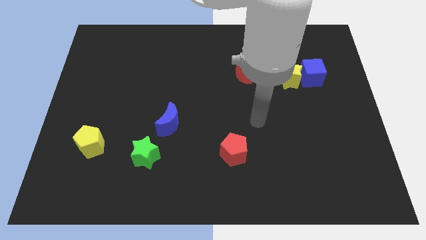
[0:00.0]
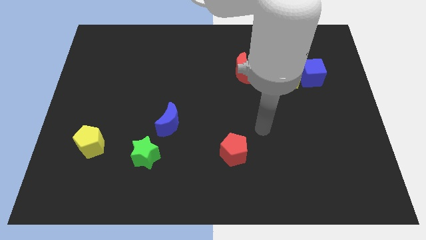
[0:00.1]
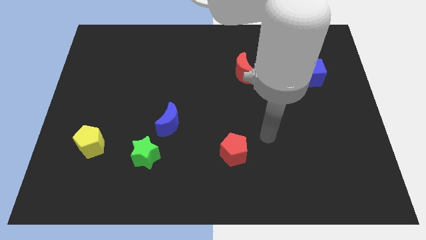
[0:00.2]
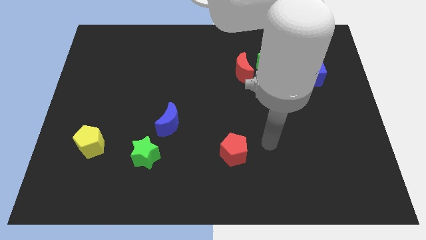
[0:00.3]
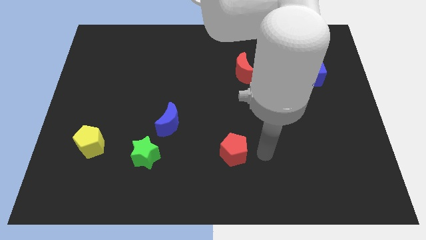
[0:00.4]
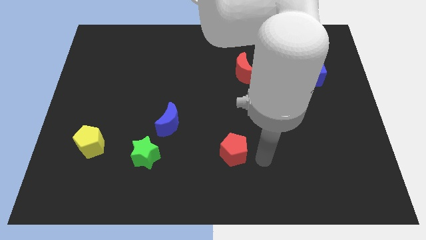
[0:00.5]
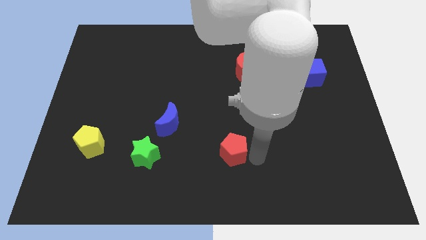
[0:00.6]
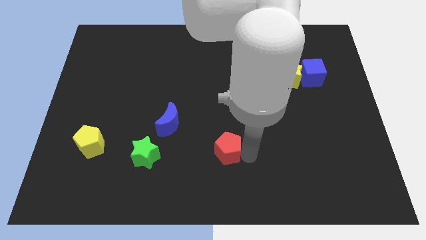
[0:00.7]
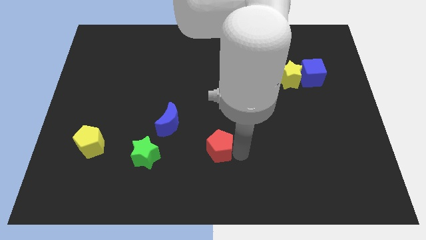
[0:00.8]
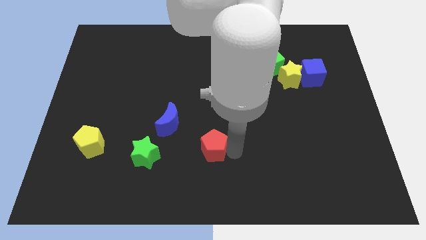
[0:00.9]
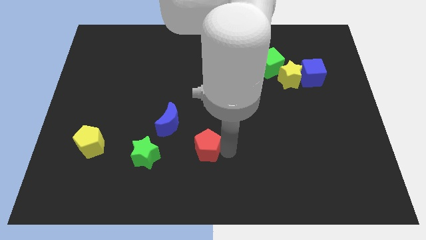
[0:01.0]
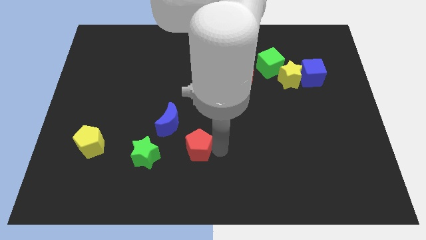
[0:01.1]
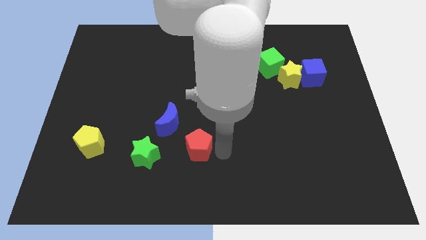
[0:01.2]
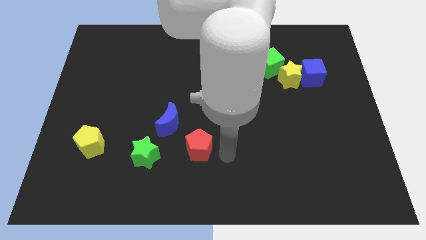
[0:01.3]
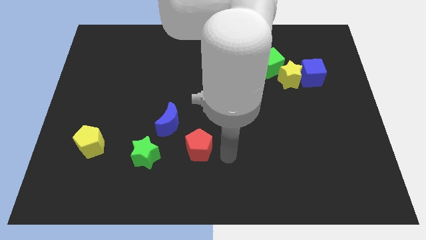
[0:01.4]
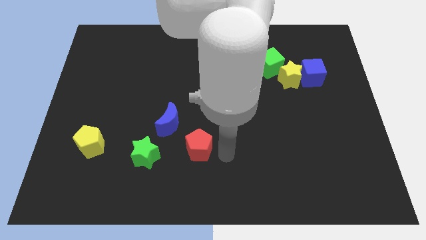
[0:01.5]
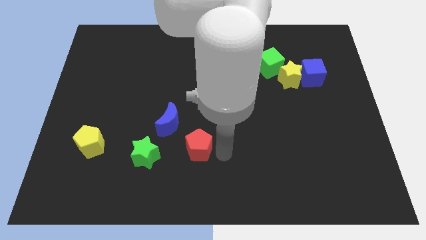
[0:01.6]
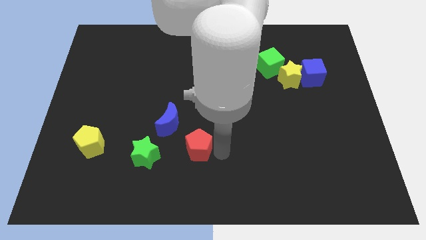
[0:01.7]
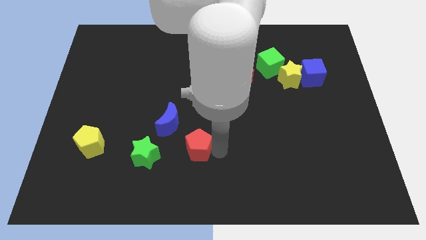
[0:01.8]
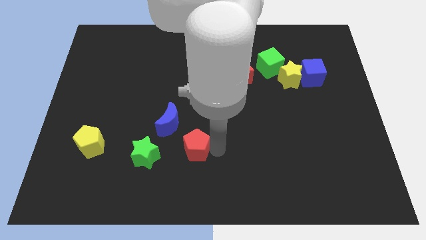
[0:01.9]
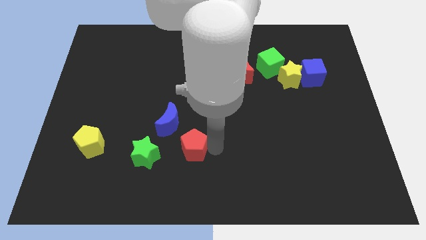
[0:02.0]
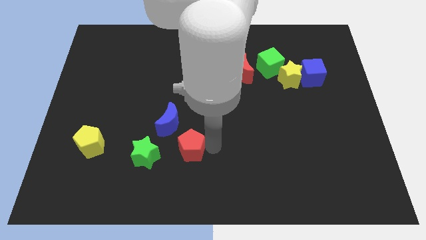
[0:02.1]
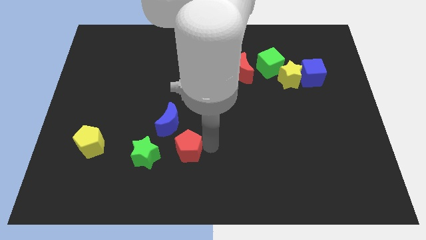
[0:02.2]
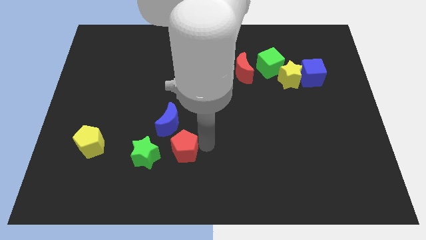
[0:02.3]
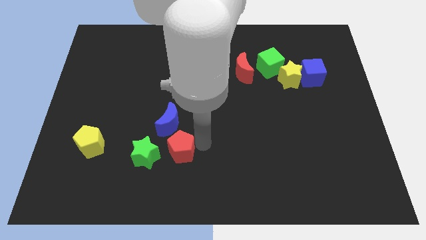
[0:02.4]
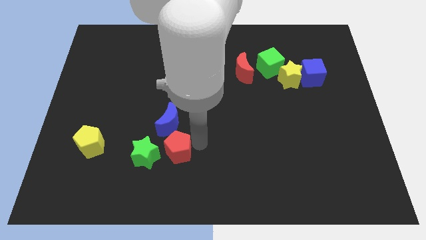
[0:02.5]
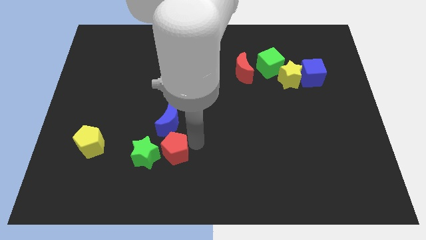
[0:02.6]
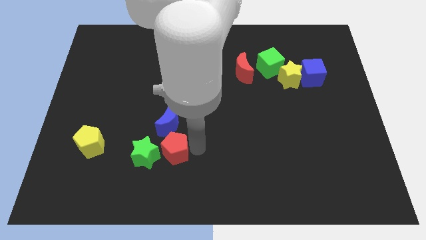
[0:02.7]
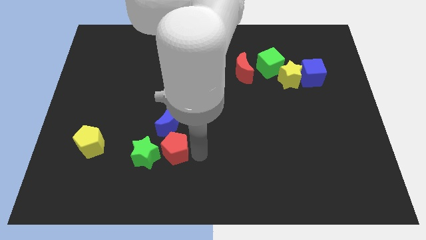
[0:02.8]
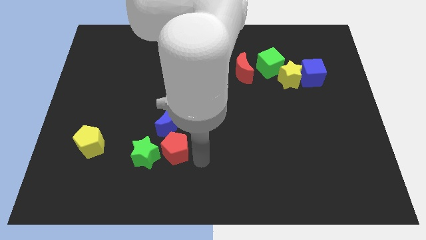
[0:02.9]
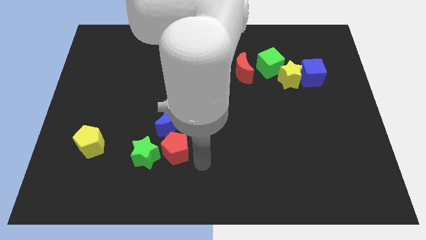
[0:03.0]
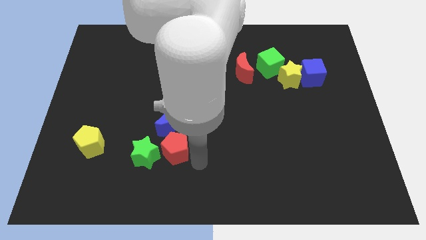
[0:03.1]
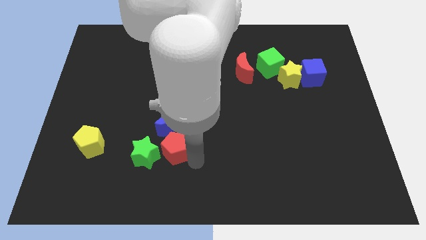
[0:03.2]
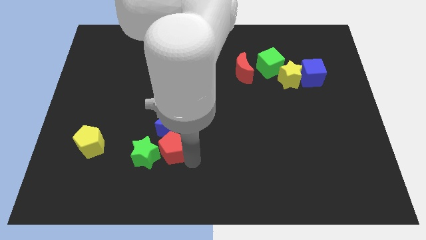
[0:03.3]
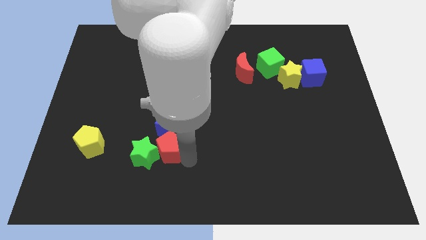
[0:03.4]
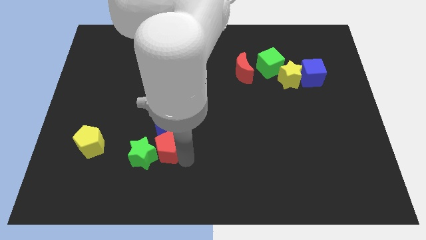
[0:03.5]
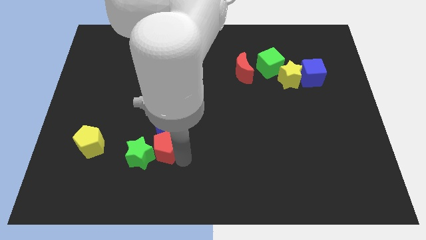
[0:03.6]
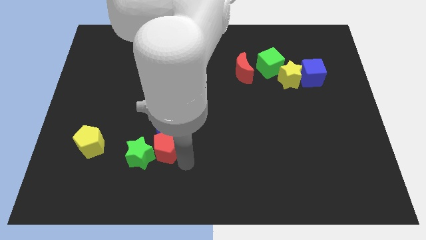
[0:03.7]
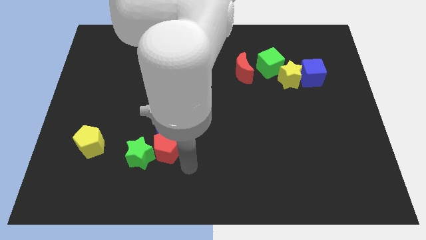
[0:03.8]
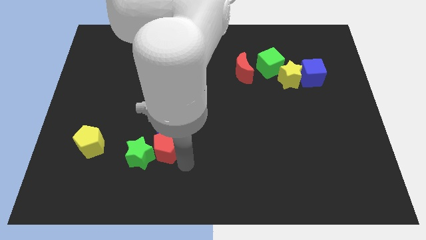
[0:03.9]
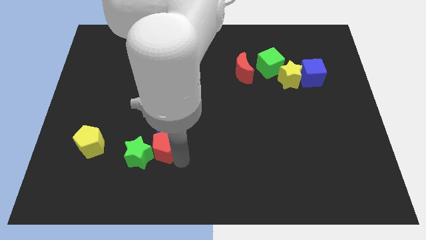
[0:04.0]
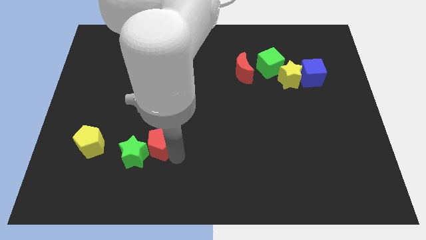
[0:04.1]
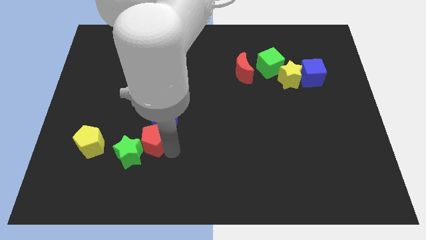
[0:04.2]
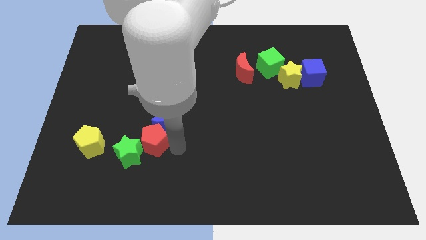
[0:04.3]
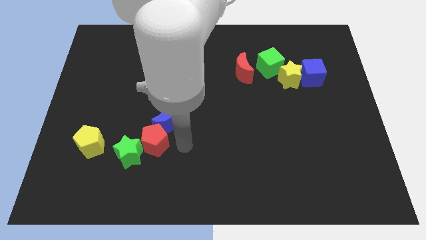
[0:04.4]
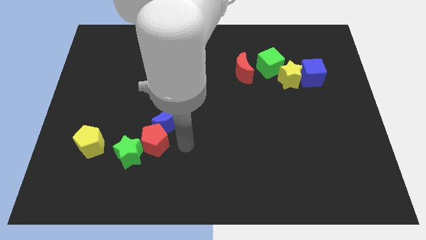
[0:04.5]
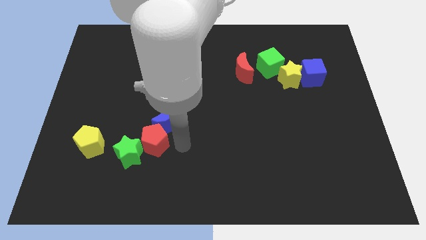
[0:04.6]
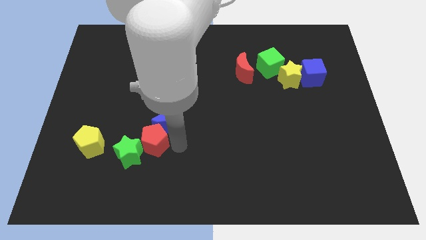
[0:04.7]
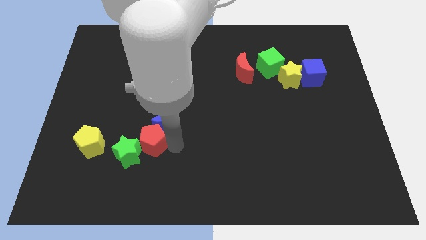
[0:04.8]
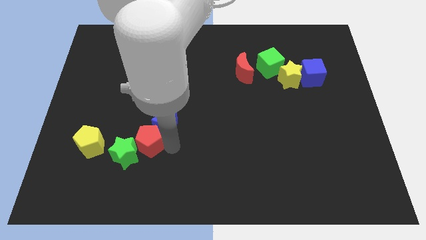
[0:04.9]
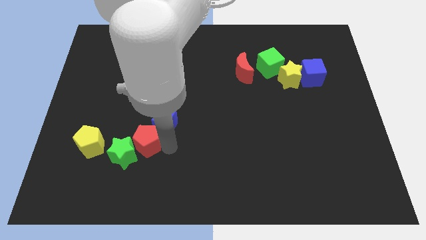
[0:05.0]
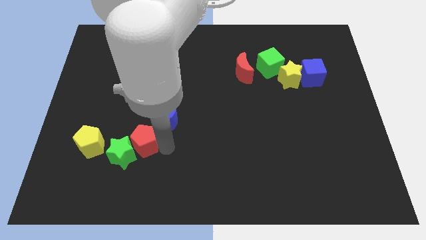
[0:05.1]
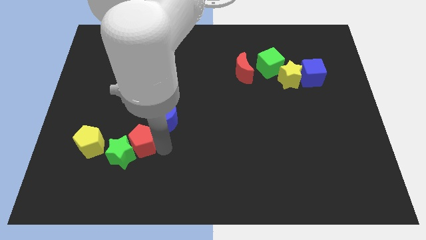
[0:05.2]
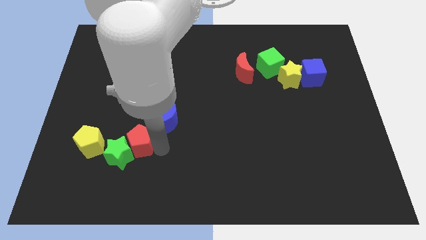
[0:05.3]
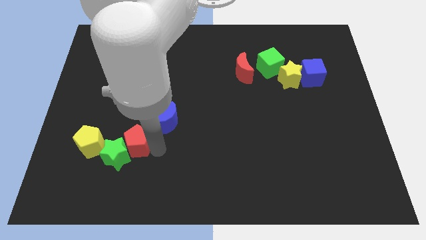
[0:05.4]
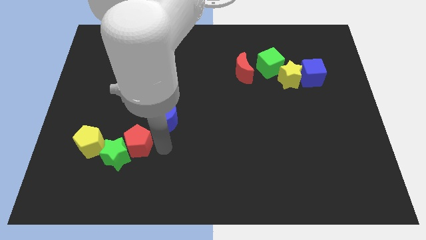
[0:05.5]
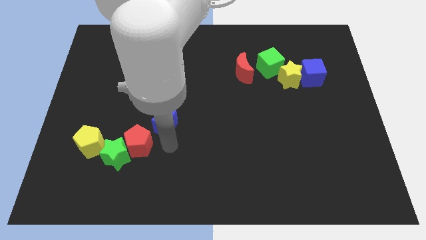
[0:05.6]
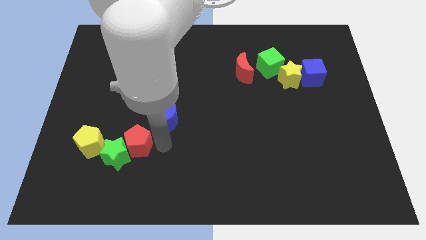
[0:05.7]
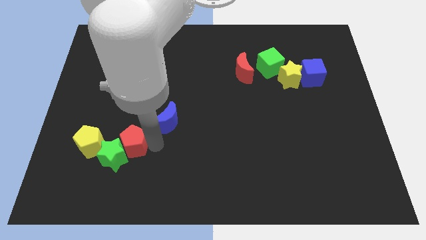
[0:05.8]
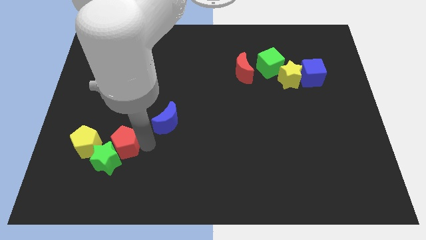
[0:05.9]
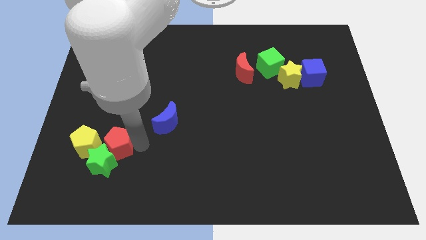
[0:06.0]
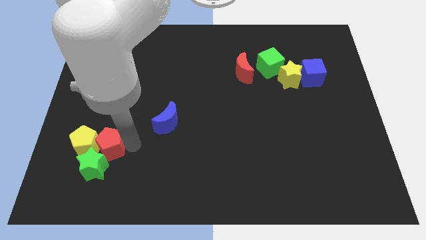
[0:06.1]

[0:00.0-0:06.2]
slide the red pentagon to the yellow pentagon

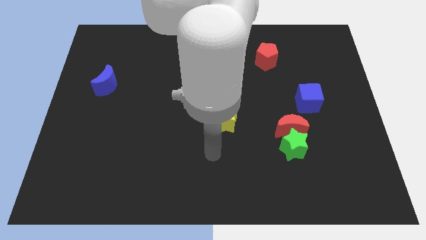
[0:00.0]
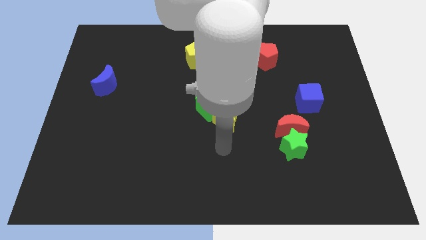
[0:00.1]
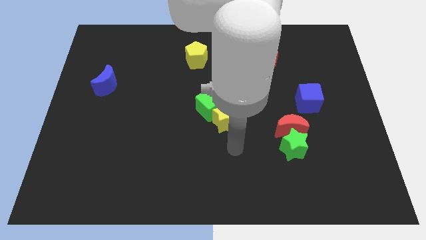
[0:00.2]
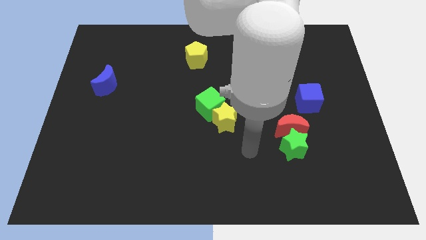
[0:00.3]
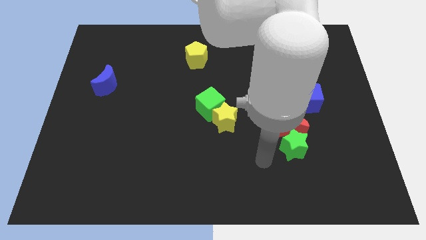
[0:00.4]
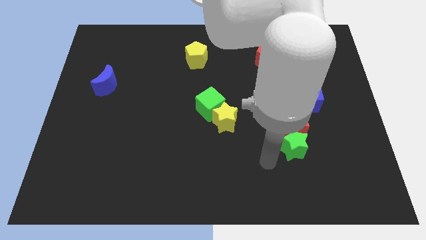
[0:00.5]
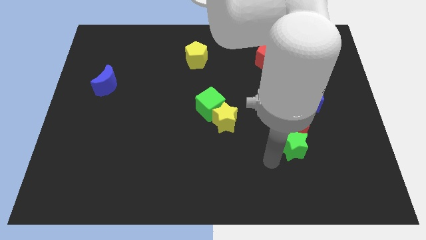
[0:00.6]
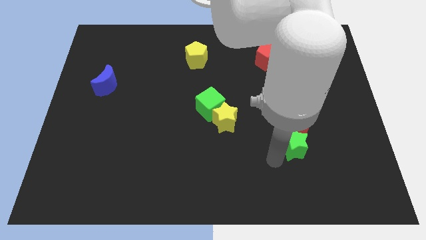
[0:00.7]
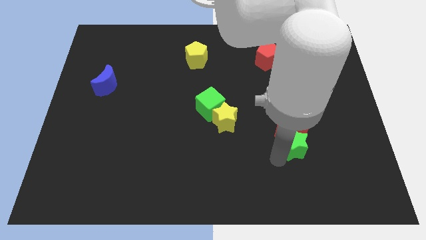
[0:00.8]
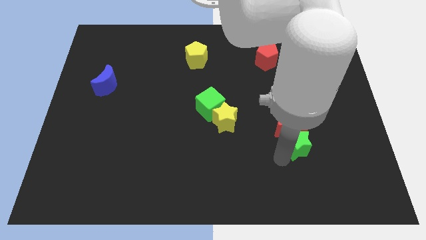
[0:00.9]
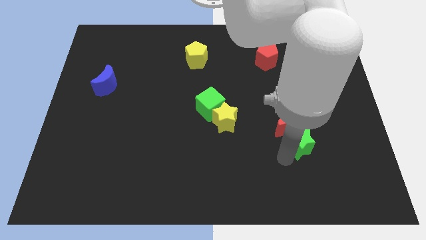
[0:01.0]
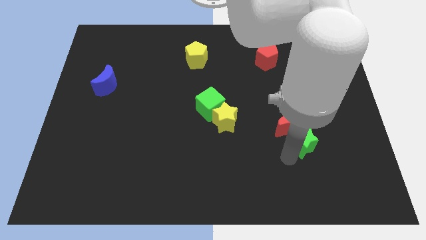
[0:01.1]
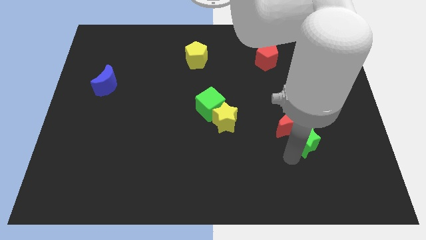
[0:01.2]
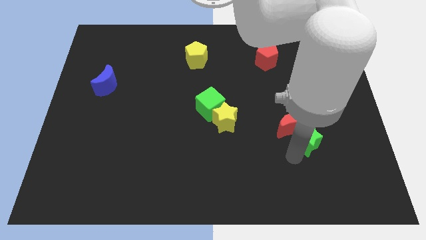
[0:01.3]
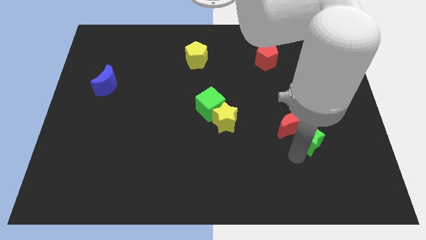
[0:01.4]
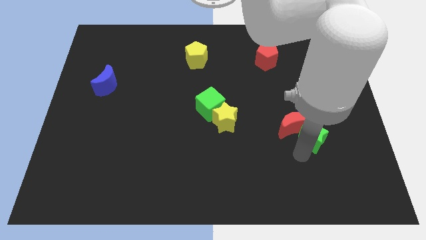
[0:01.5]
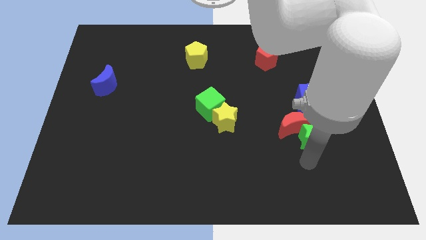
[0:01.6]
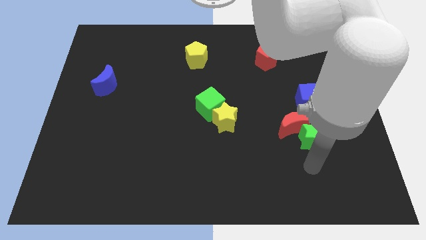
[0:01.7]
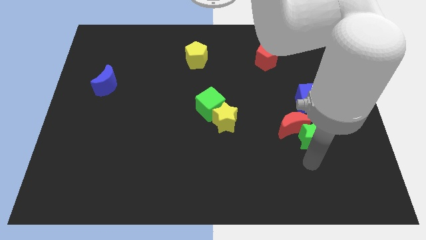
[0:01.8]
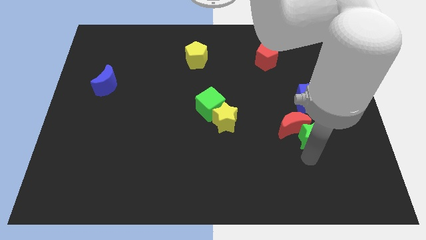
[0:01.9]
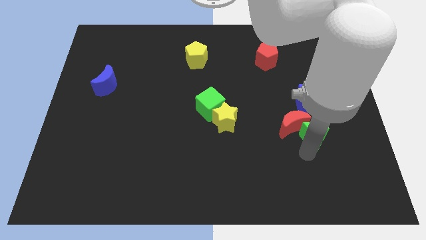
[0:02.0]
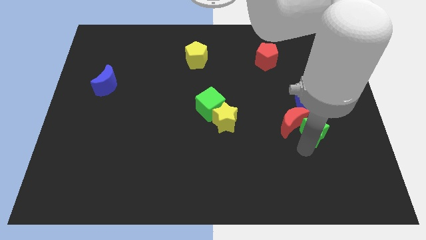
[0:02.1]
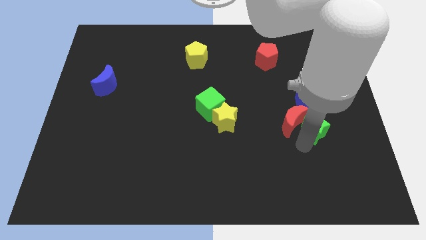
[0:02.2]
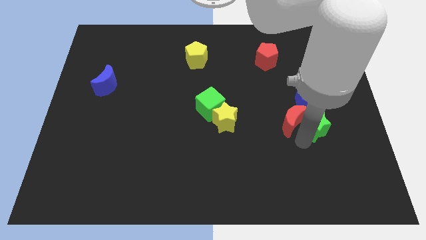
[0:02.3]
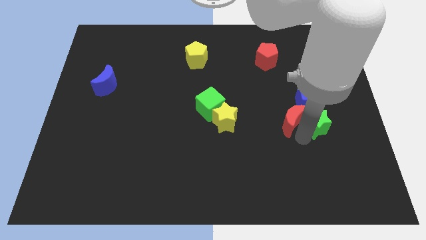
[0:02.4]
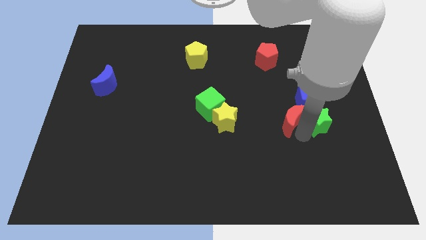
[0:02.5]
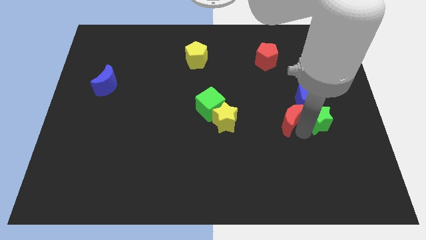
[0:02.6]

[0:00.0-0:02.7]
put the green star towards the blue cube
